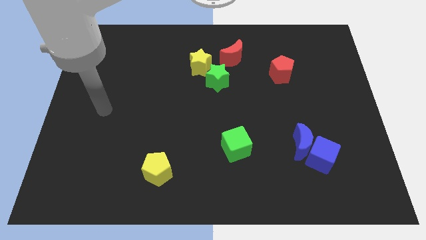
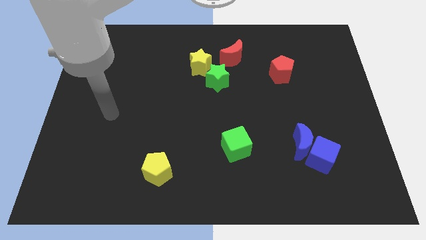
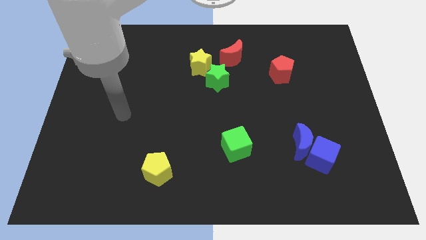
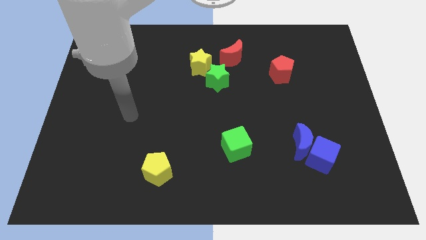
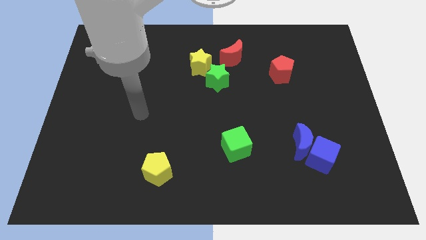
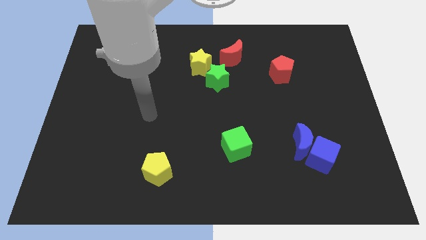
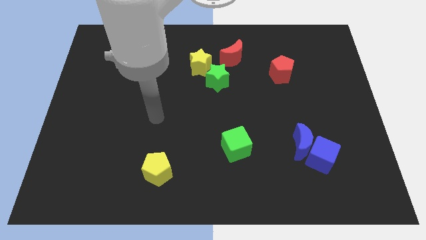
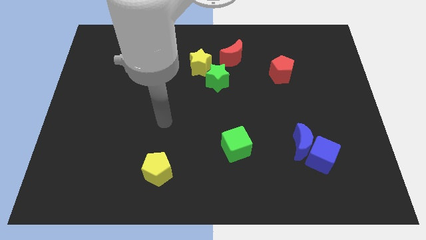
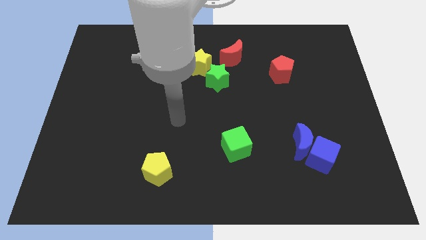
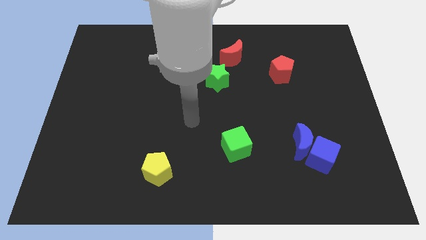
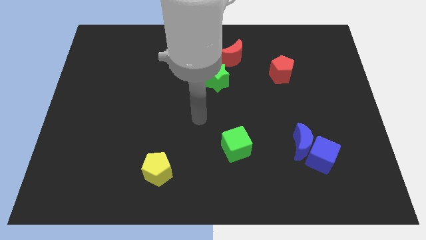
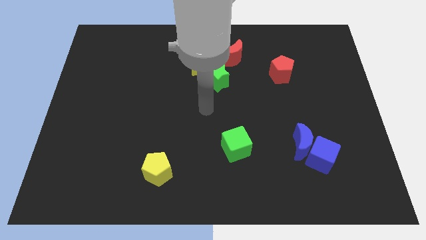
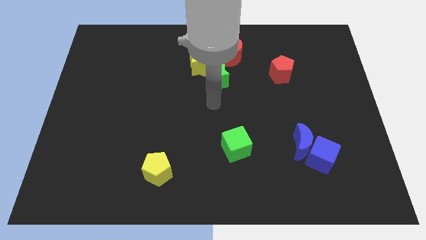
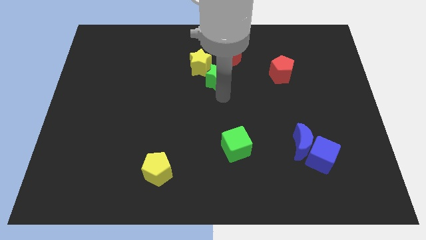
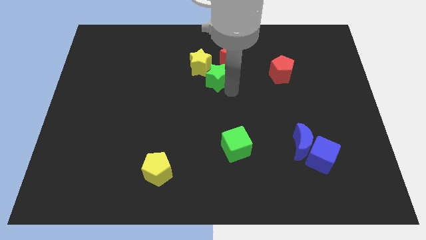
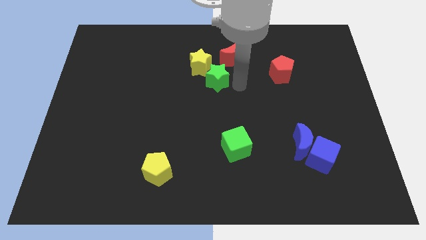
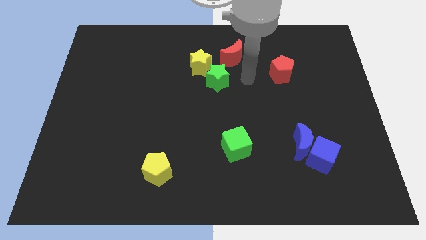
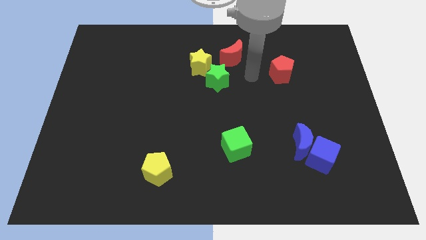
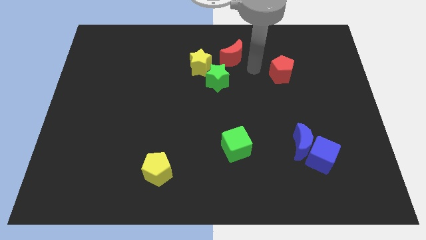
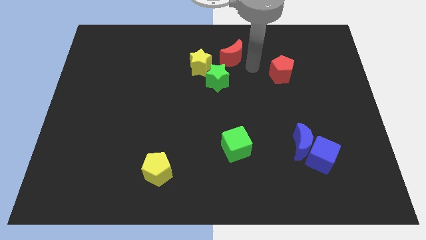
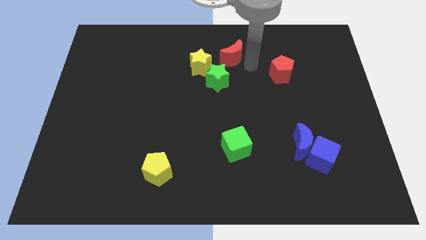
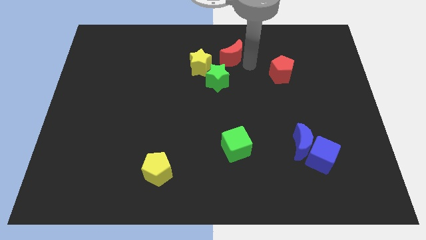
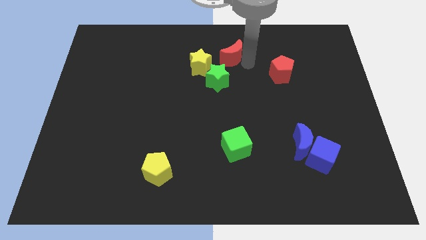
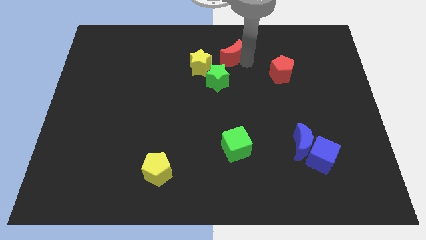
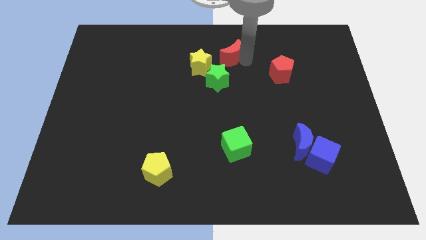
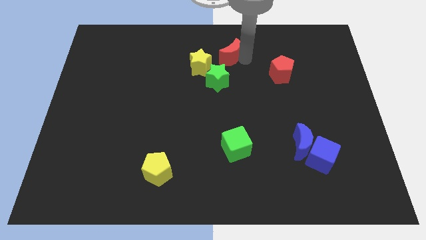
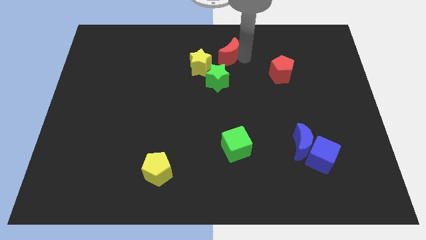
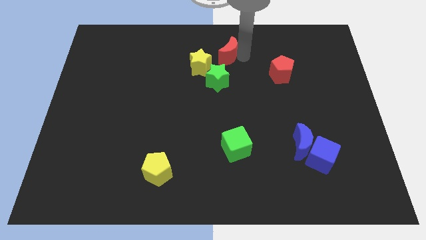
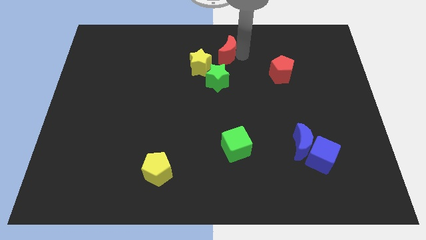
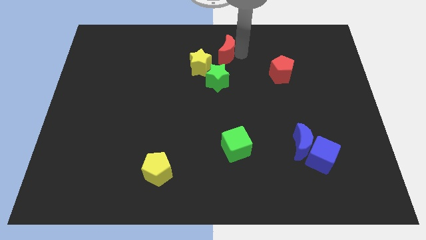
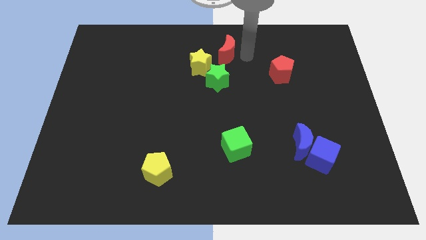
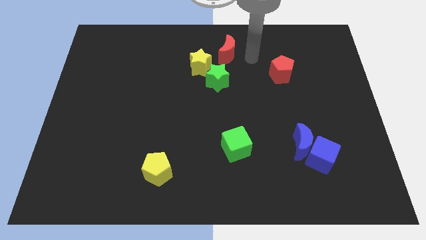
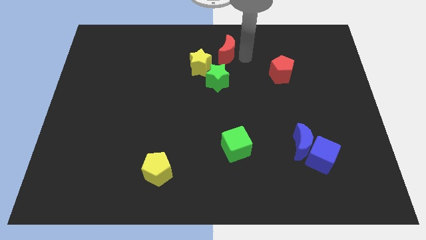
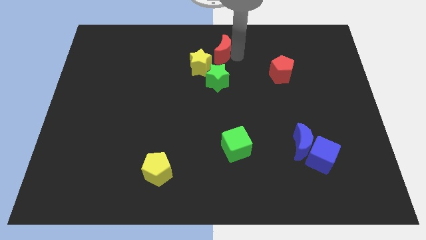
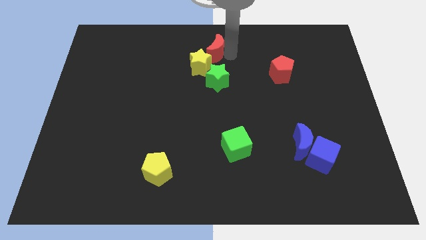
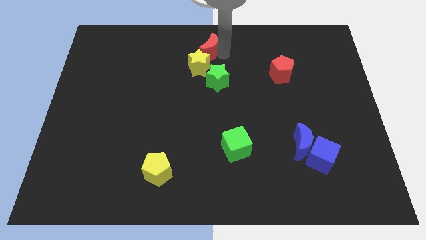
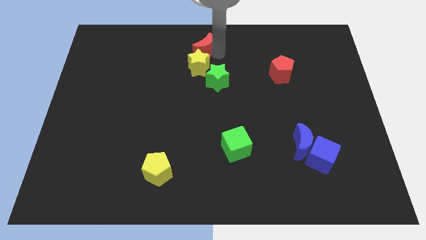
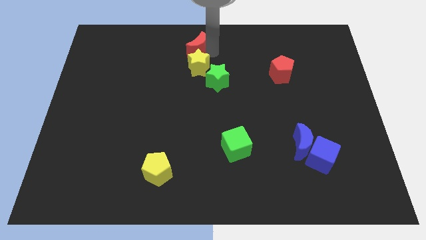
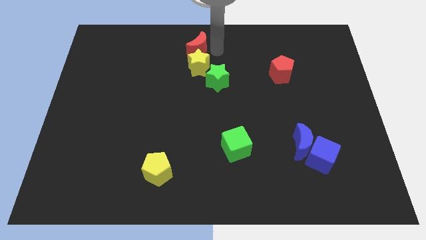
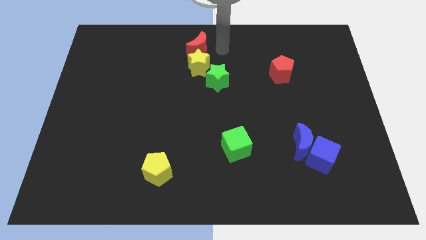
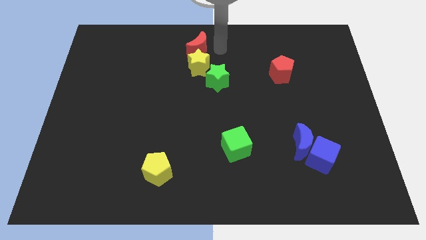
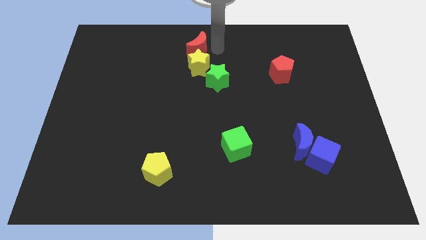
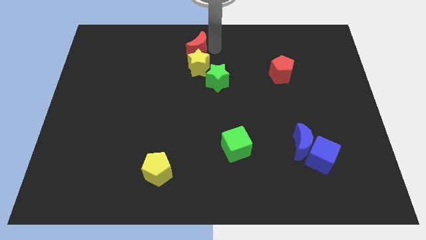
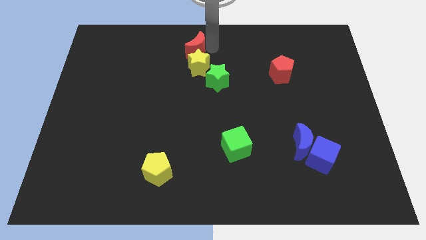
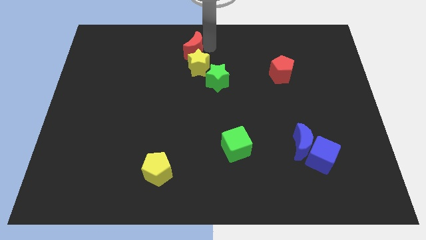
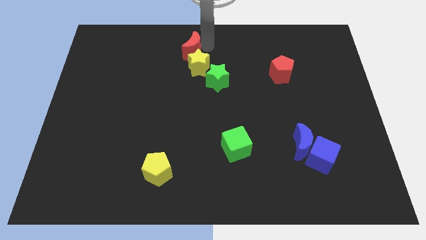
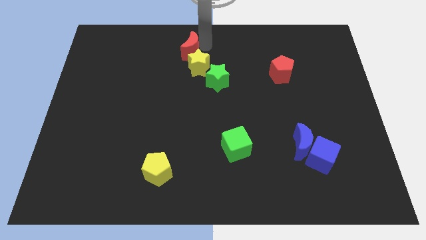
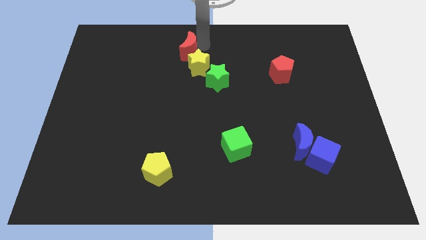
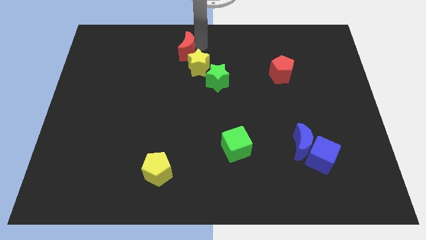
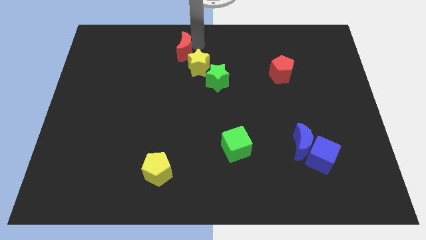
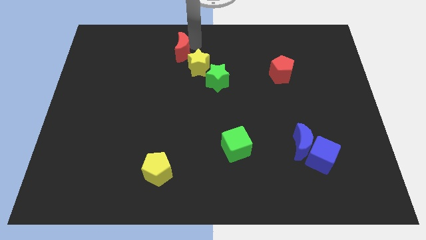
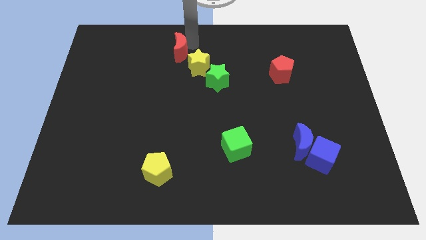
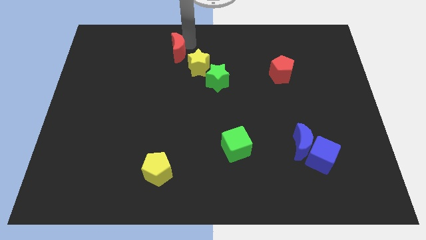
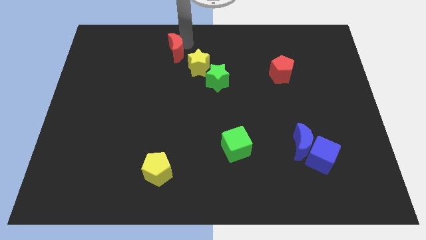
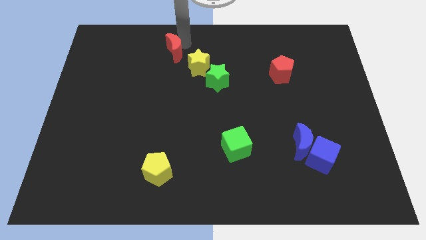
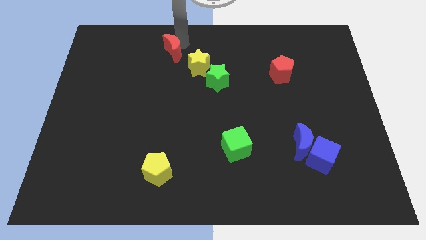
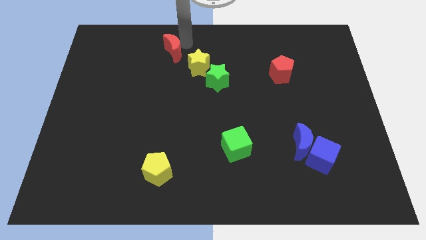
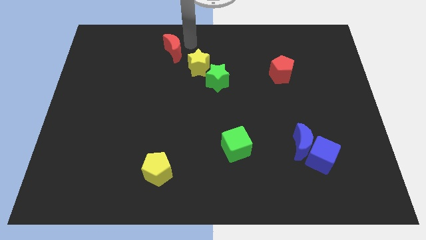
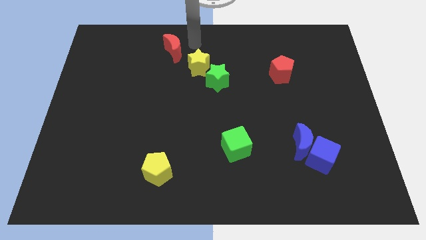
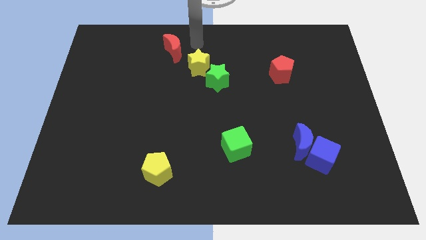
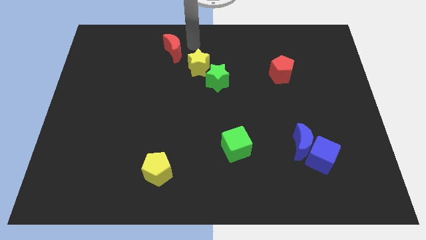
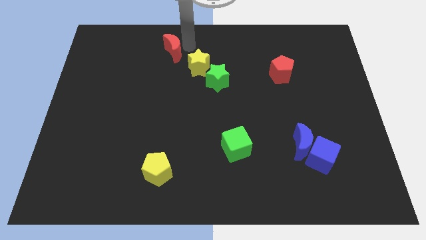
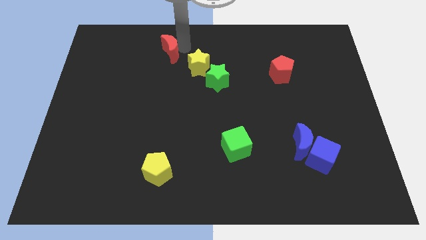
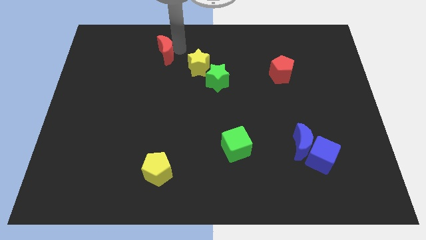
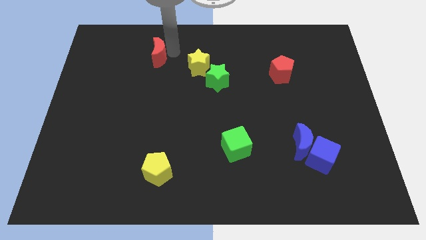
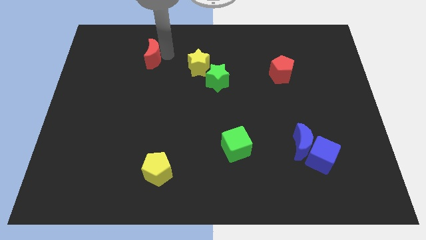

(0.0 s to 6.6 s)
slide the red moon left

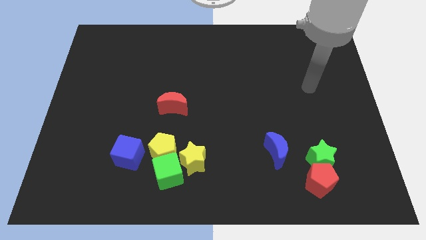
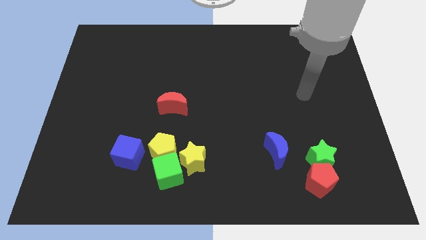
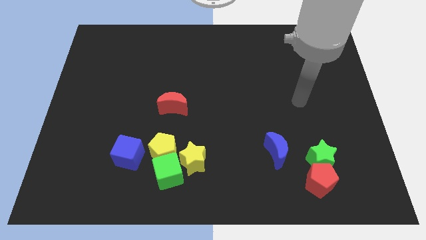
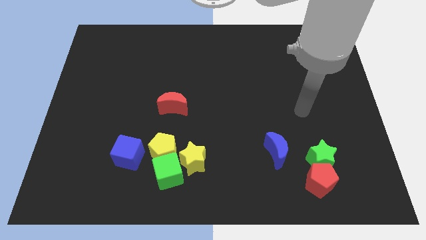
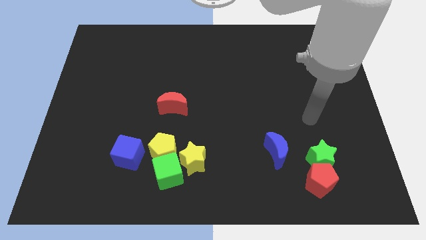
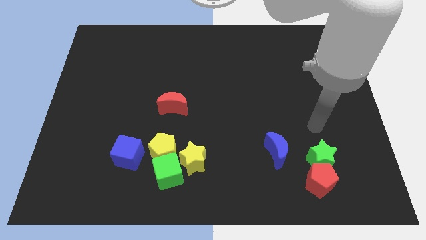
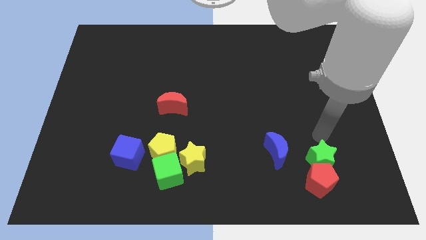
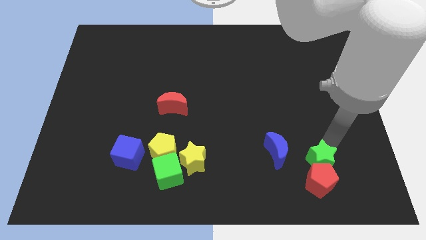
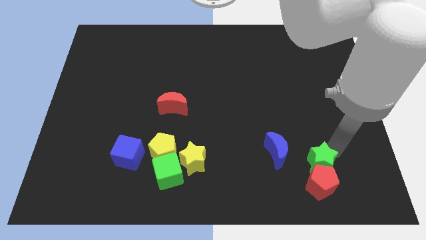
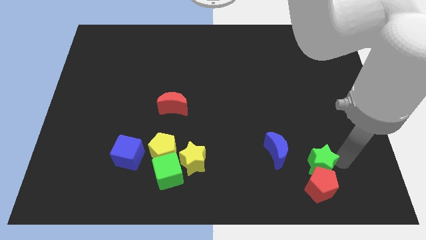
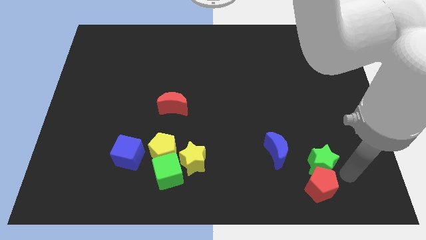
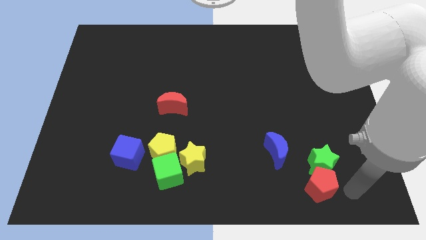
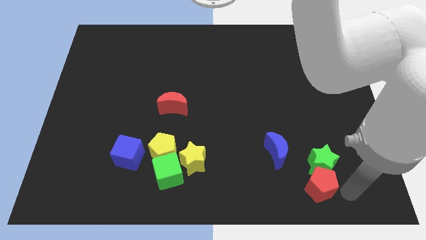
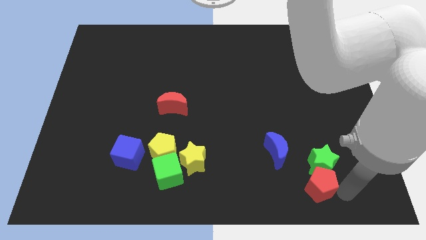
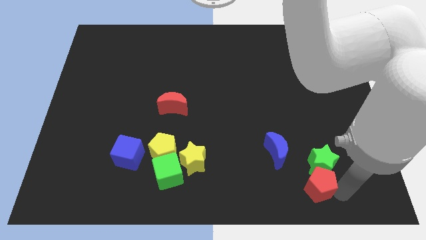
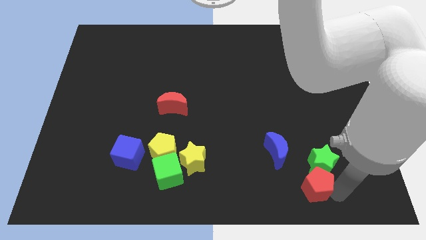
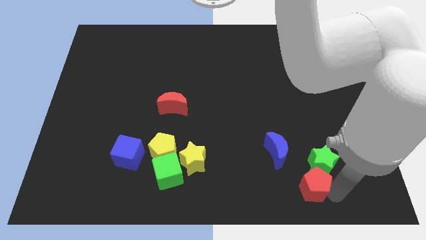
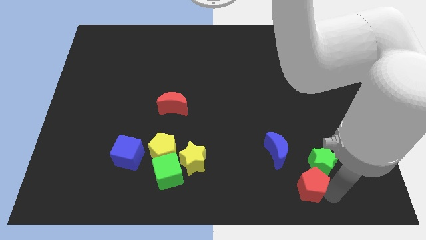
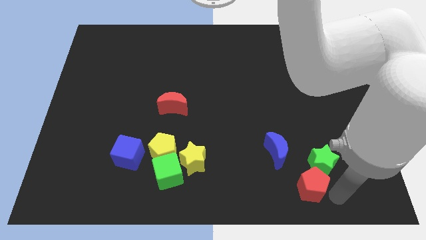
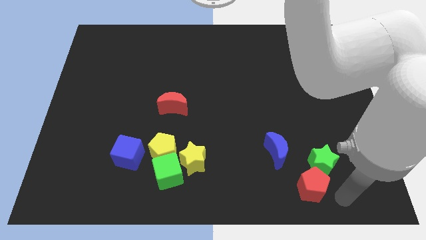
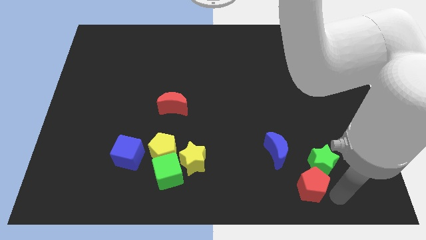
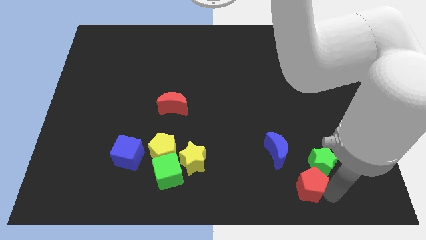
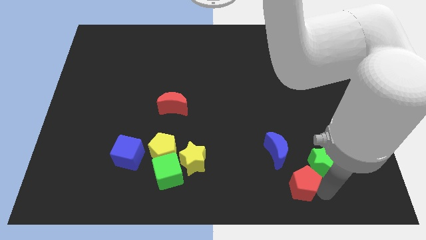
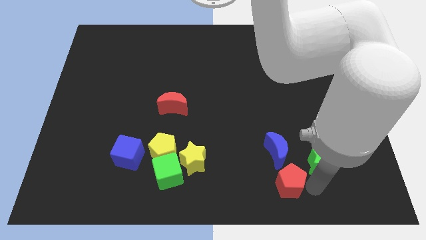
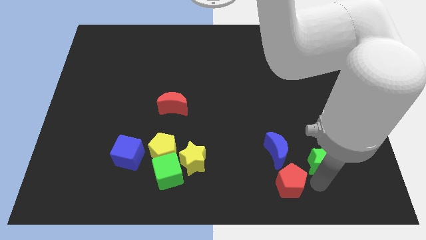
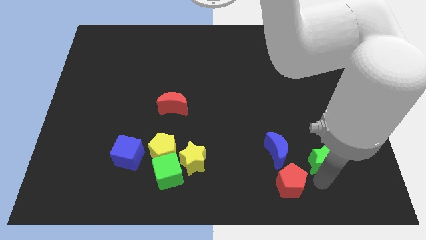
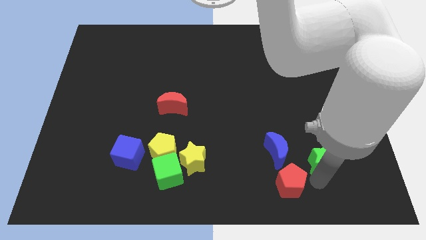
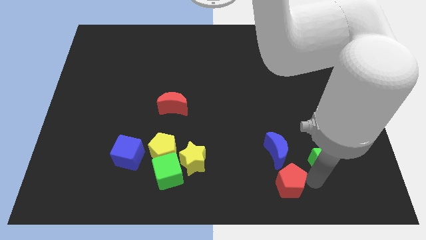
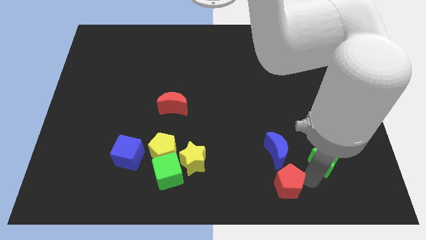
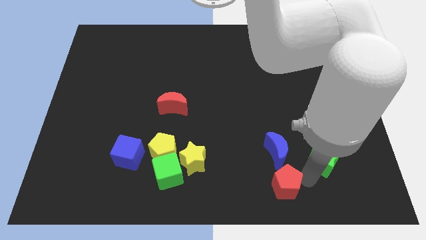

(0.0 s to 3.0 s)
slide the red pentagon to the left a little bit
